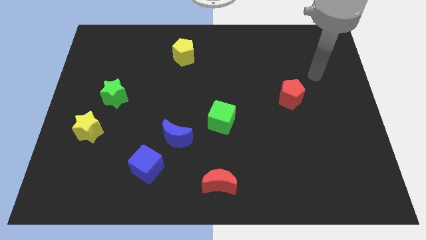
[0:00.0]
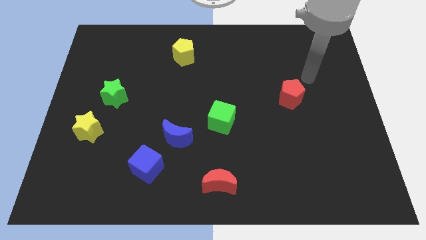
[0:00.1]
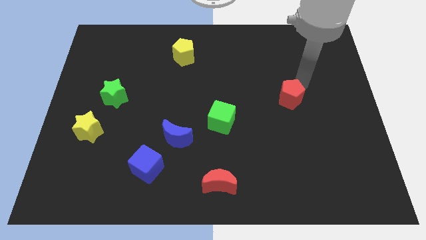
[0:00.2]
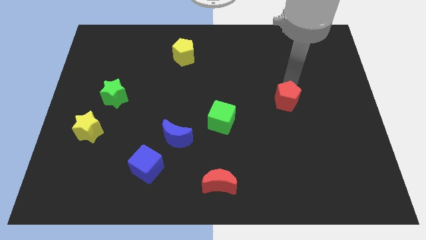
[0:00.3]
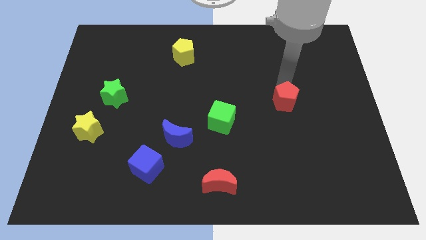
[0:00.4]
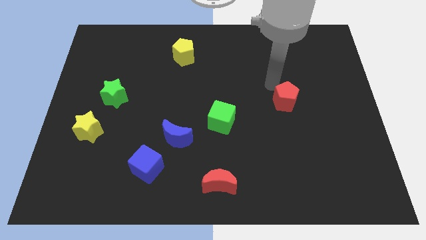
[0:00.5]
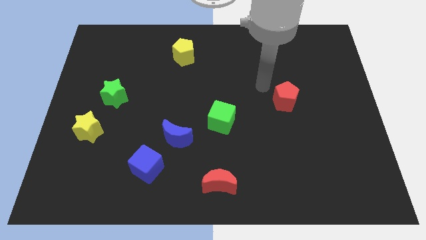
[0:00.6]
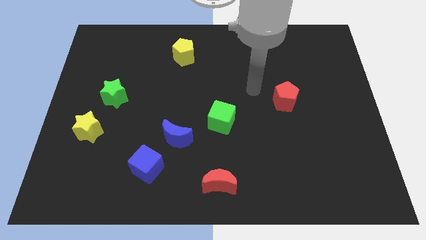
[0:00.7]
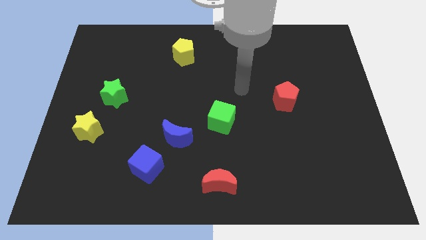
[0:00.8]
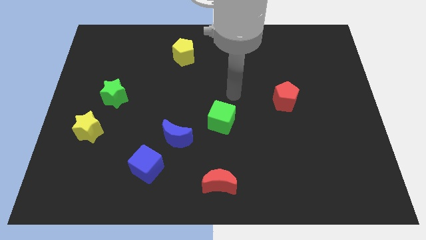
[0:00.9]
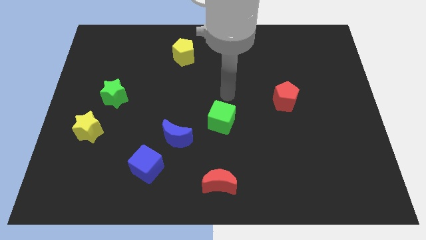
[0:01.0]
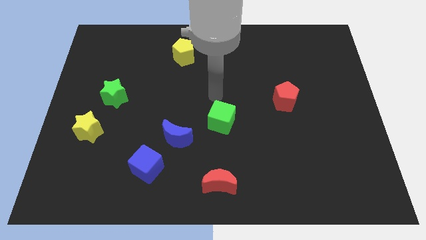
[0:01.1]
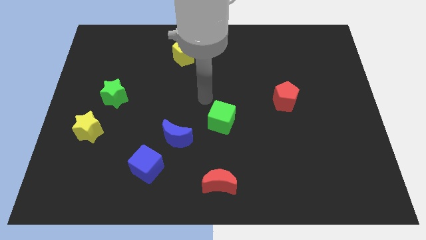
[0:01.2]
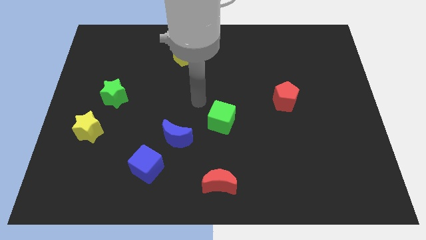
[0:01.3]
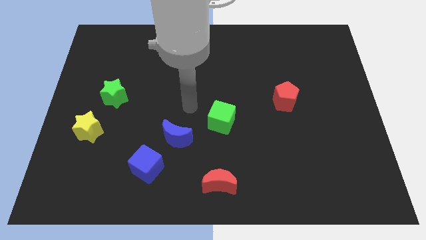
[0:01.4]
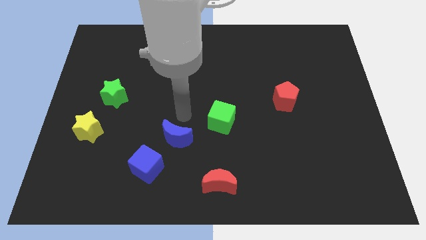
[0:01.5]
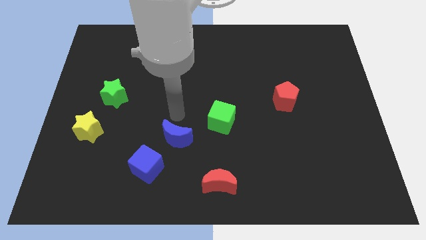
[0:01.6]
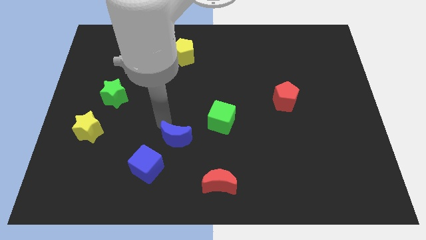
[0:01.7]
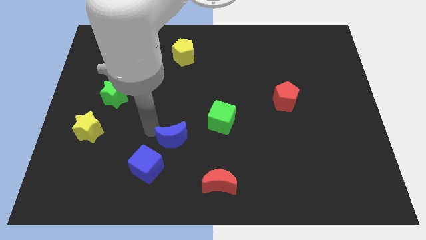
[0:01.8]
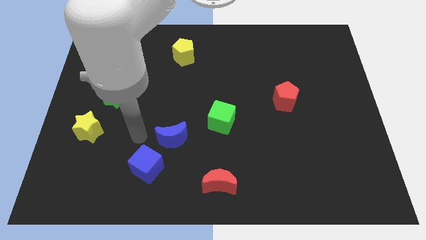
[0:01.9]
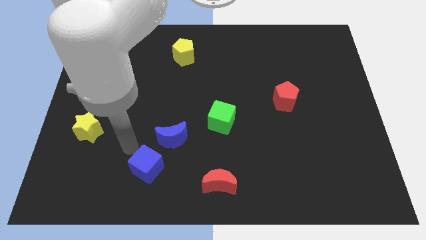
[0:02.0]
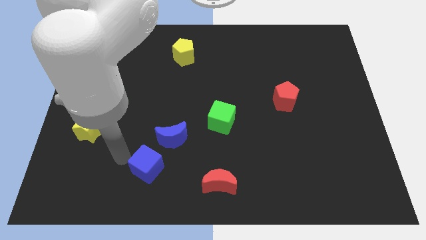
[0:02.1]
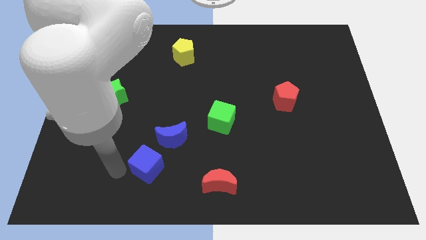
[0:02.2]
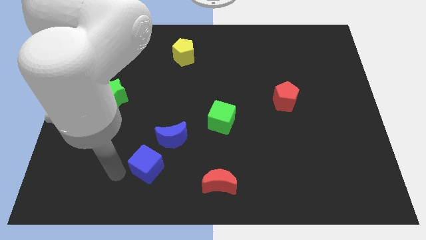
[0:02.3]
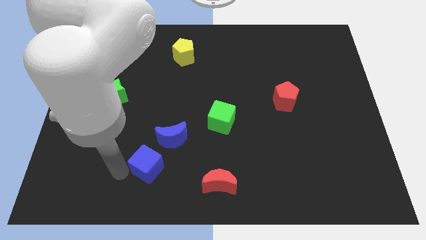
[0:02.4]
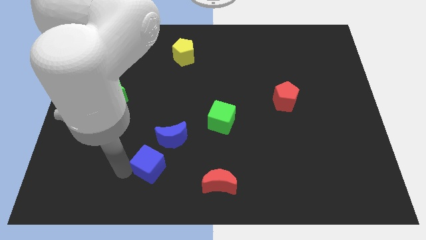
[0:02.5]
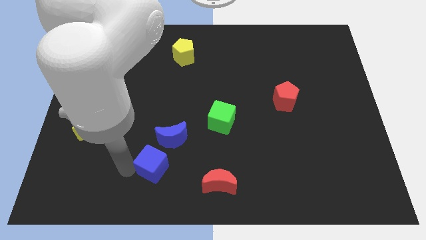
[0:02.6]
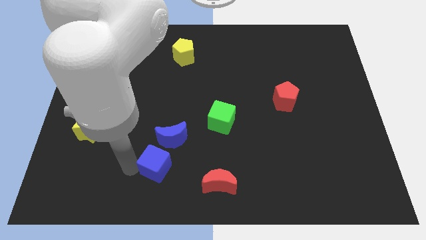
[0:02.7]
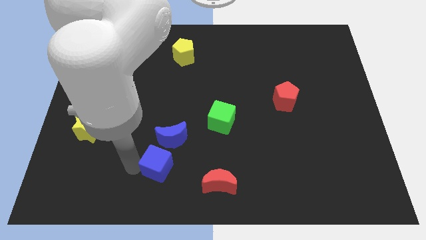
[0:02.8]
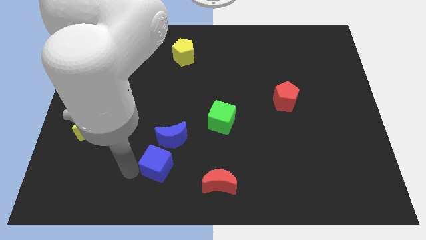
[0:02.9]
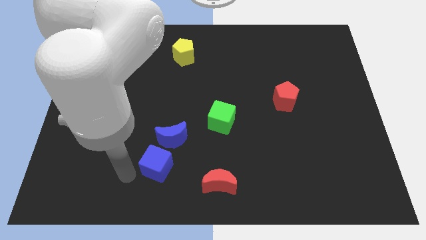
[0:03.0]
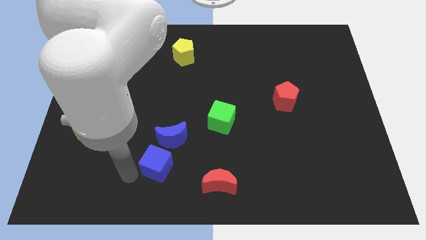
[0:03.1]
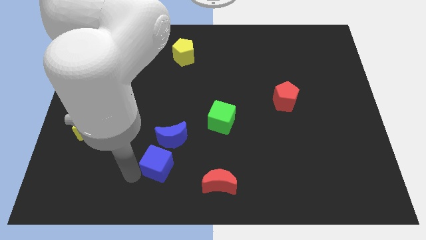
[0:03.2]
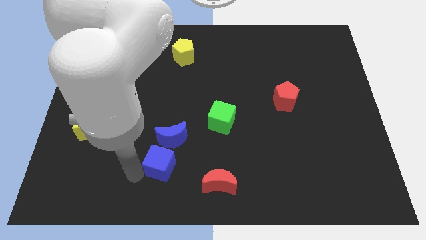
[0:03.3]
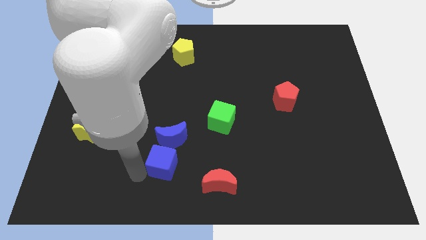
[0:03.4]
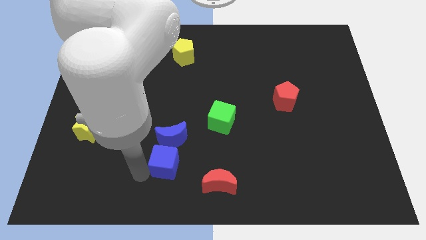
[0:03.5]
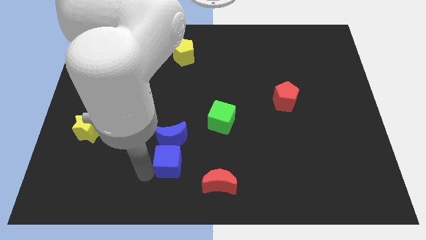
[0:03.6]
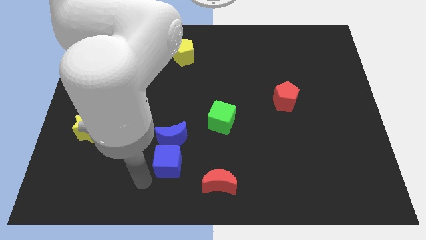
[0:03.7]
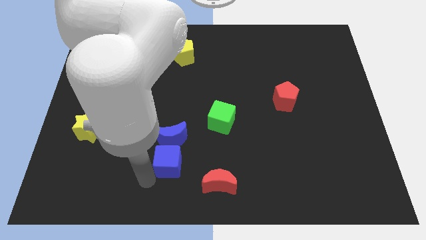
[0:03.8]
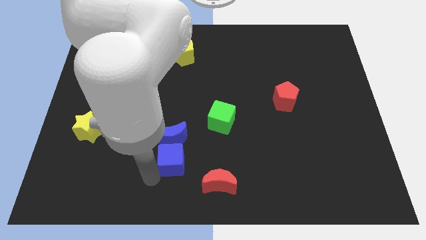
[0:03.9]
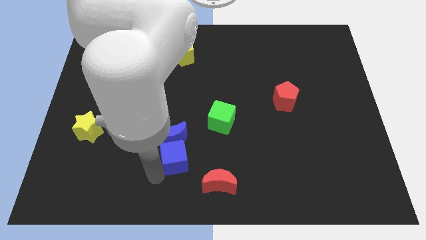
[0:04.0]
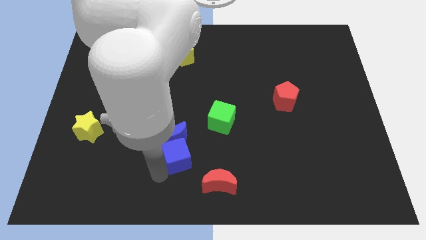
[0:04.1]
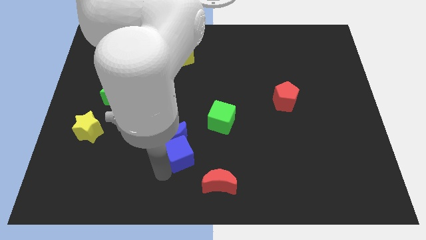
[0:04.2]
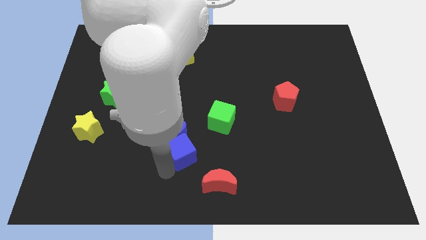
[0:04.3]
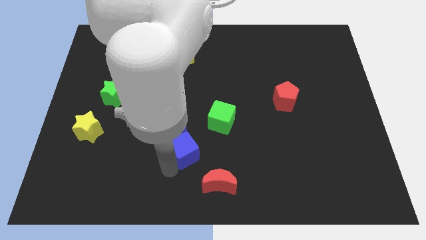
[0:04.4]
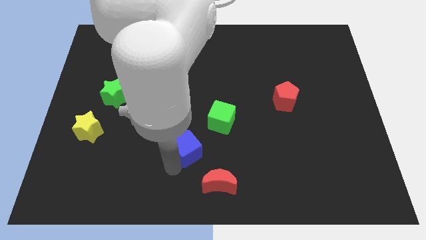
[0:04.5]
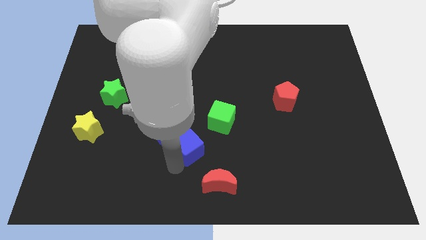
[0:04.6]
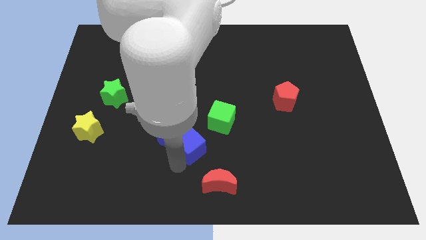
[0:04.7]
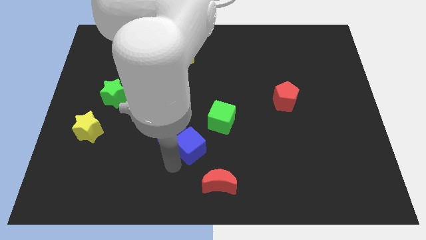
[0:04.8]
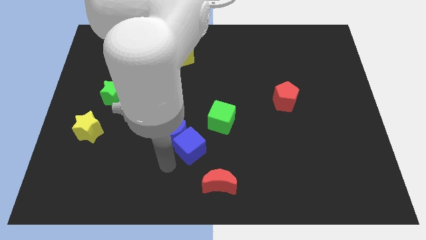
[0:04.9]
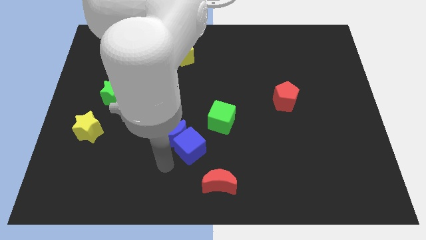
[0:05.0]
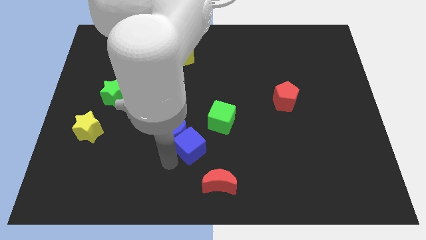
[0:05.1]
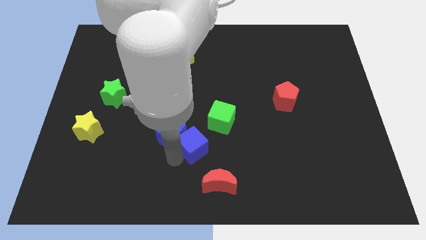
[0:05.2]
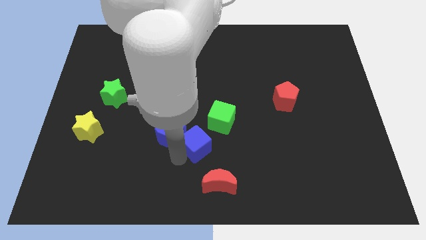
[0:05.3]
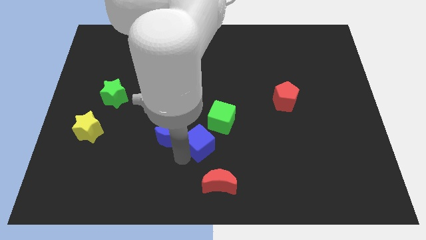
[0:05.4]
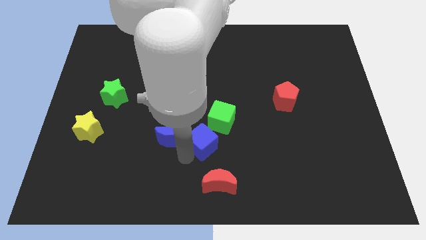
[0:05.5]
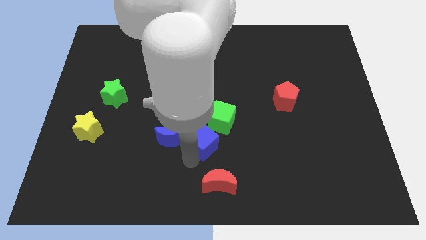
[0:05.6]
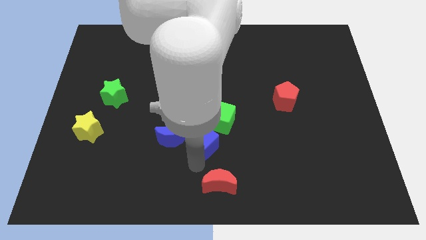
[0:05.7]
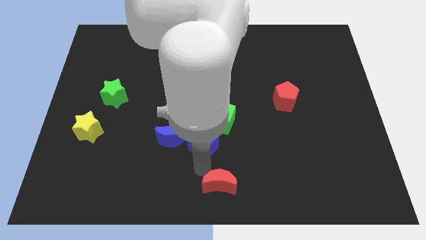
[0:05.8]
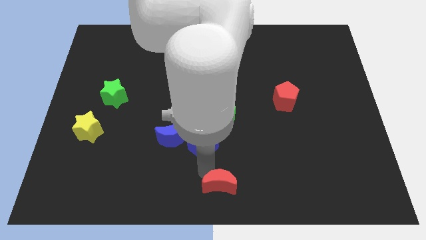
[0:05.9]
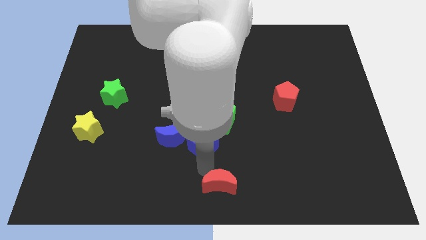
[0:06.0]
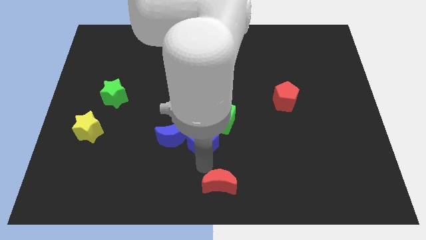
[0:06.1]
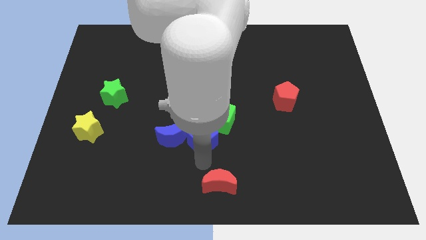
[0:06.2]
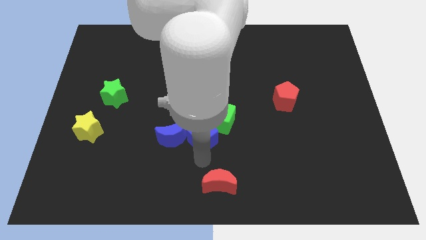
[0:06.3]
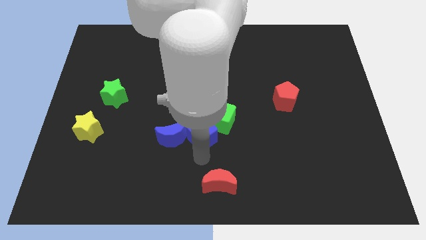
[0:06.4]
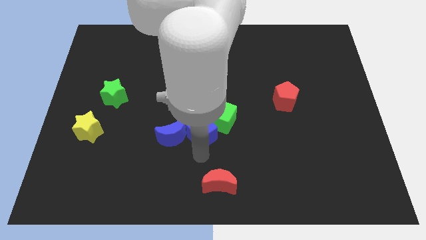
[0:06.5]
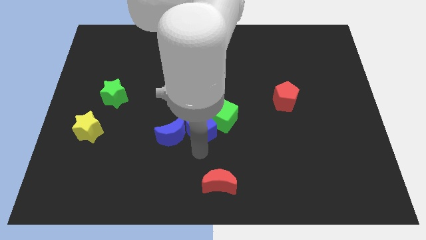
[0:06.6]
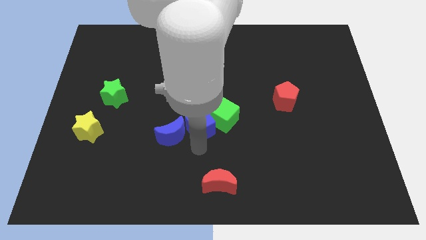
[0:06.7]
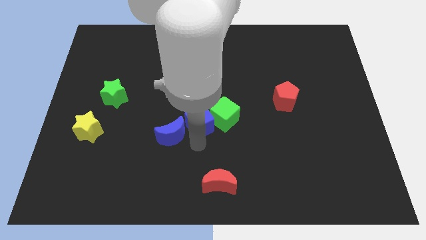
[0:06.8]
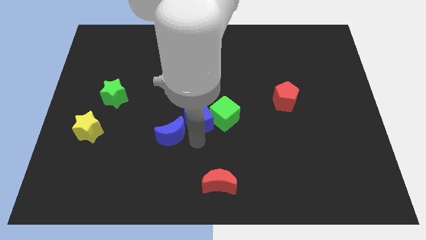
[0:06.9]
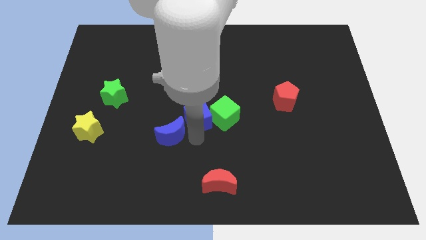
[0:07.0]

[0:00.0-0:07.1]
slide the blue cube to the top left side of the green cube
